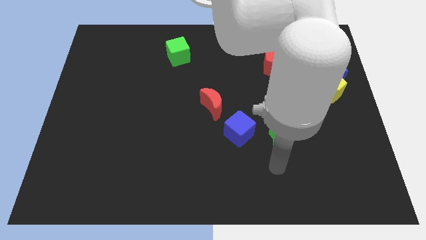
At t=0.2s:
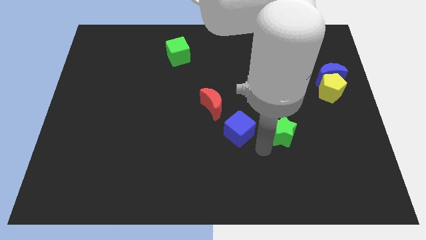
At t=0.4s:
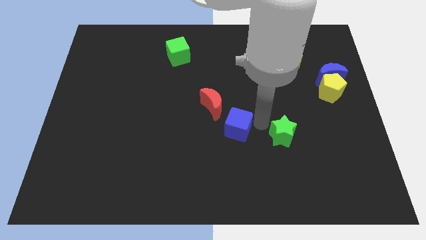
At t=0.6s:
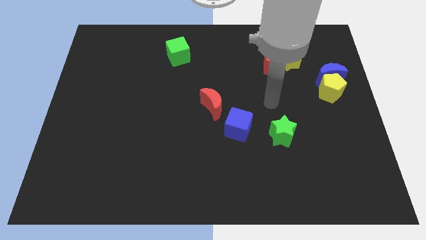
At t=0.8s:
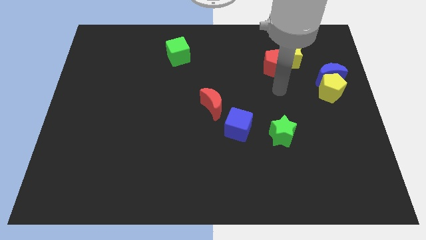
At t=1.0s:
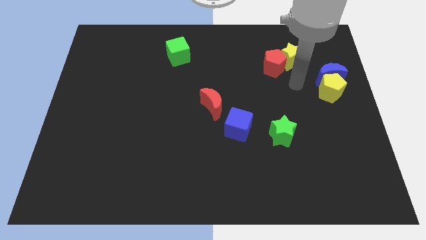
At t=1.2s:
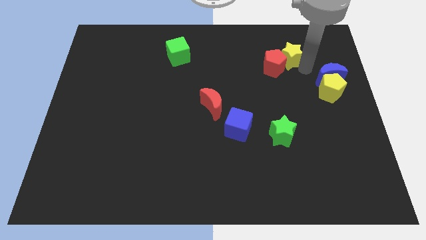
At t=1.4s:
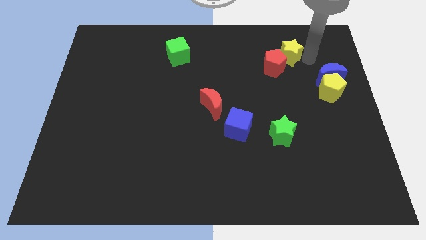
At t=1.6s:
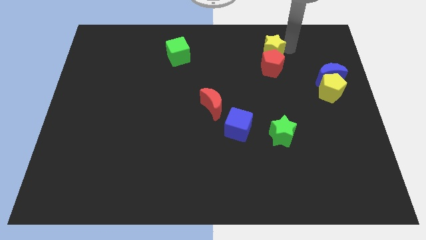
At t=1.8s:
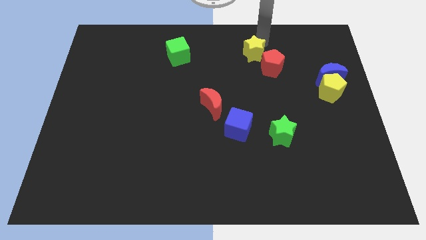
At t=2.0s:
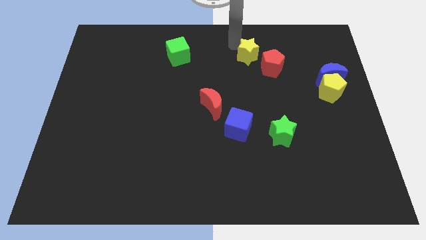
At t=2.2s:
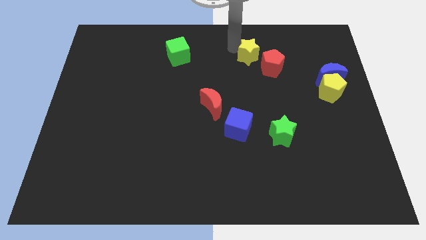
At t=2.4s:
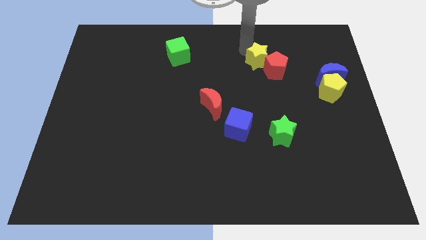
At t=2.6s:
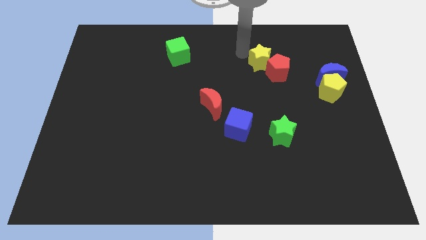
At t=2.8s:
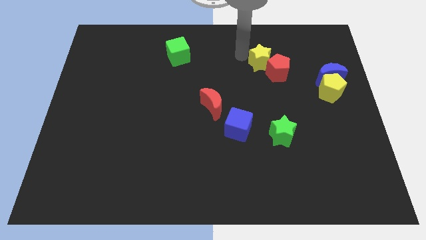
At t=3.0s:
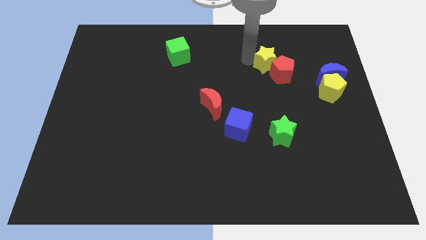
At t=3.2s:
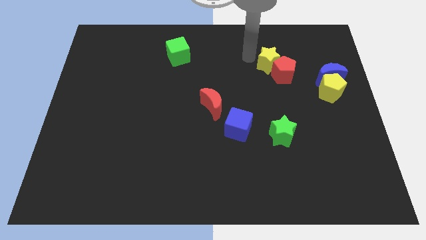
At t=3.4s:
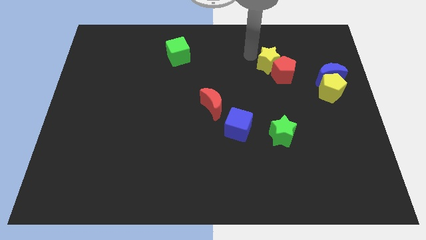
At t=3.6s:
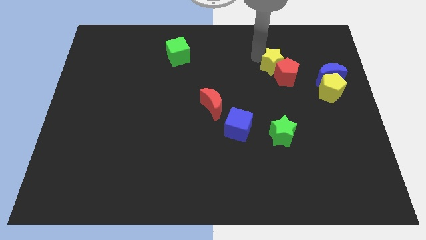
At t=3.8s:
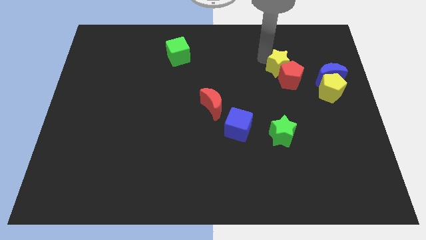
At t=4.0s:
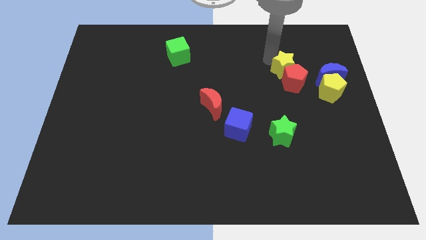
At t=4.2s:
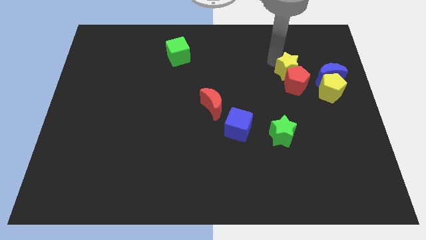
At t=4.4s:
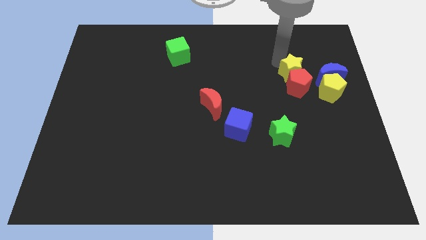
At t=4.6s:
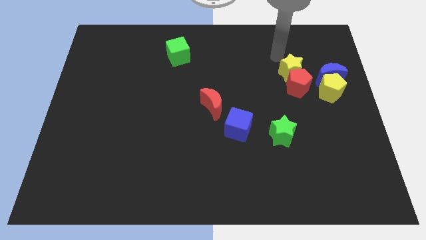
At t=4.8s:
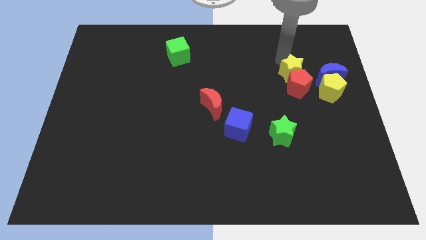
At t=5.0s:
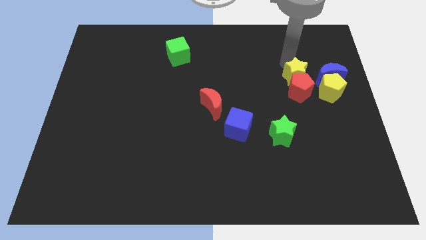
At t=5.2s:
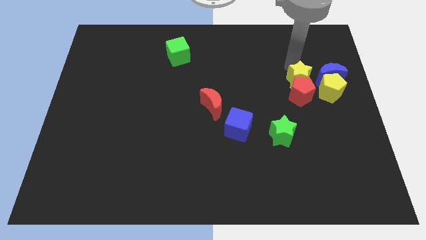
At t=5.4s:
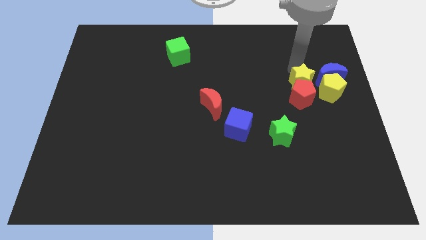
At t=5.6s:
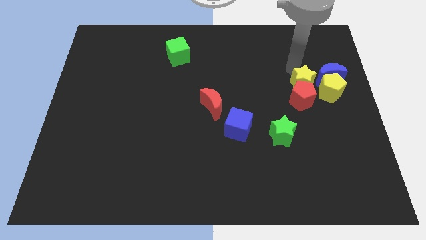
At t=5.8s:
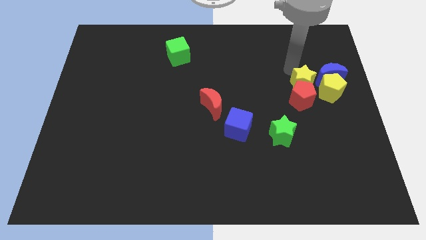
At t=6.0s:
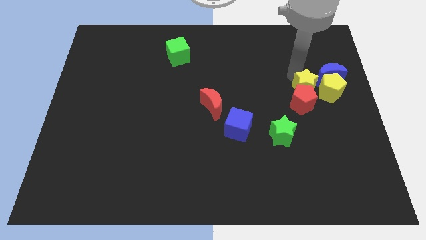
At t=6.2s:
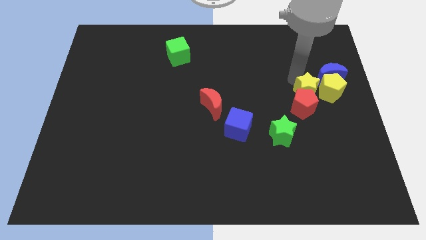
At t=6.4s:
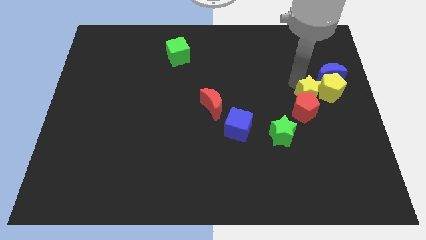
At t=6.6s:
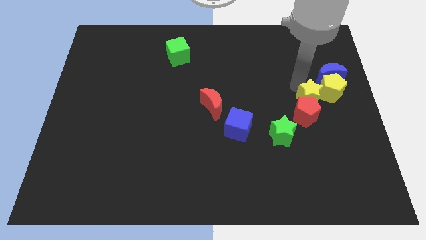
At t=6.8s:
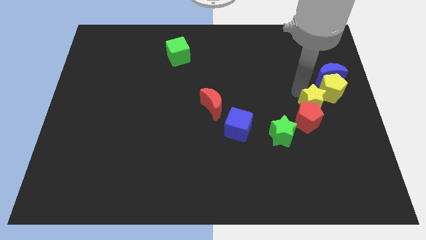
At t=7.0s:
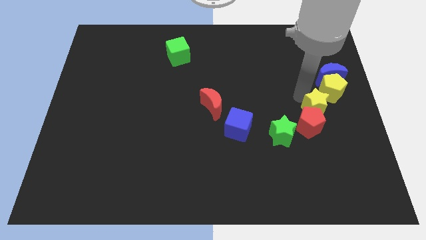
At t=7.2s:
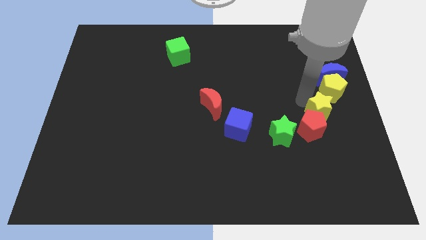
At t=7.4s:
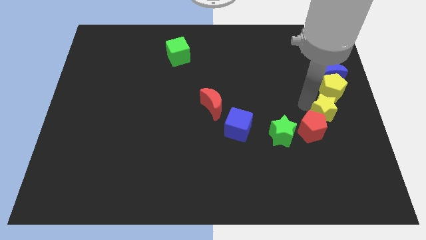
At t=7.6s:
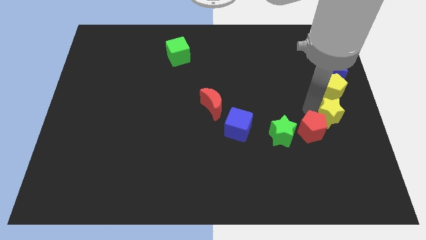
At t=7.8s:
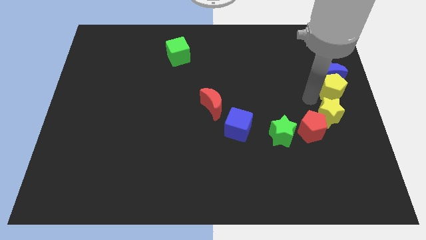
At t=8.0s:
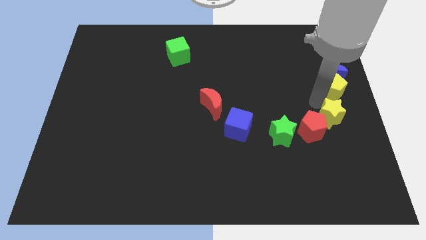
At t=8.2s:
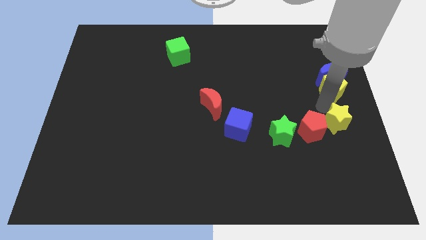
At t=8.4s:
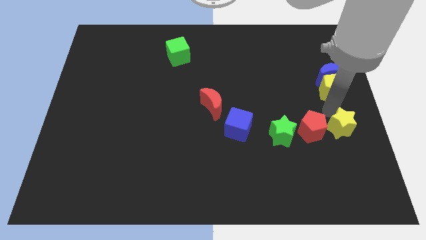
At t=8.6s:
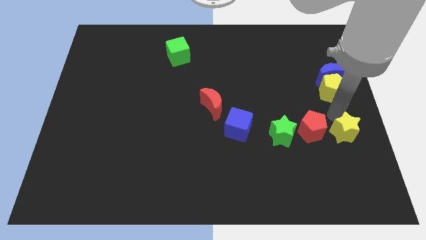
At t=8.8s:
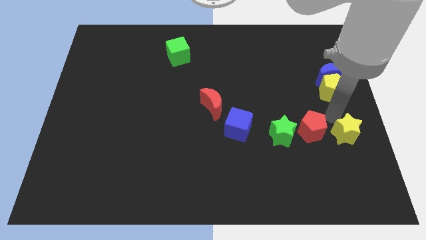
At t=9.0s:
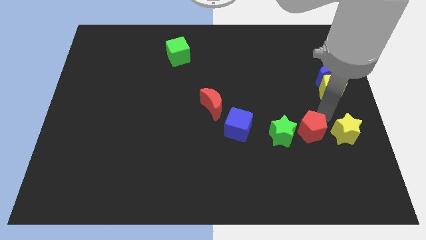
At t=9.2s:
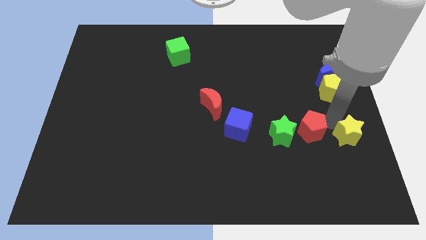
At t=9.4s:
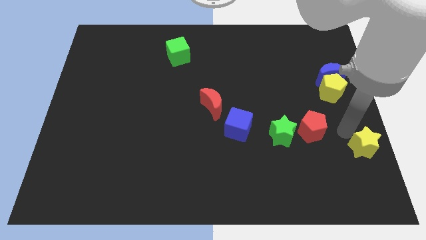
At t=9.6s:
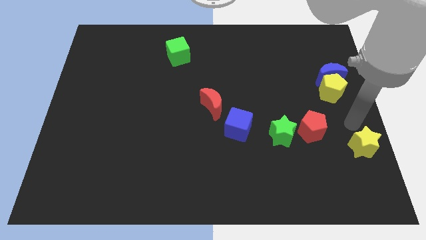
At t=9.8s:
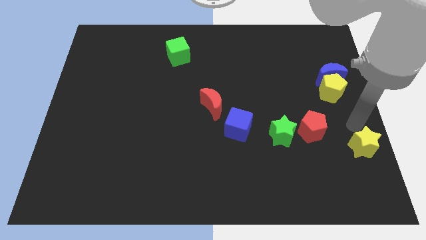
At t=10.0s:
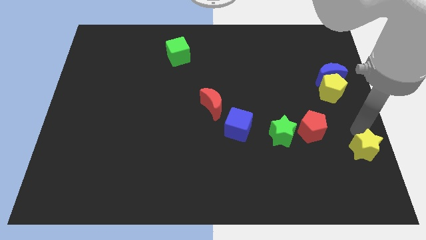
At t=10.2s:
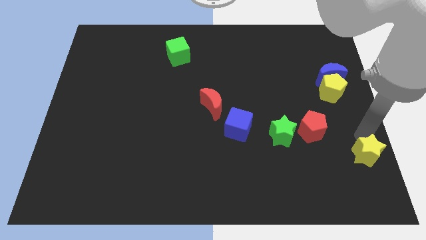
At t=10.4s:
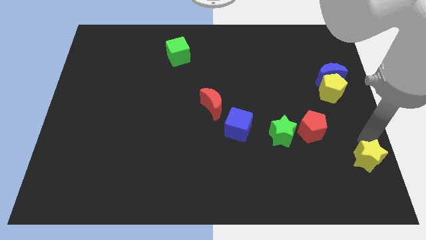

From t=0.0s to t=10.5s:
put the yellow star to the bottom right
